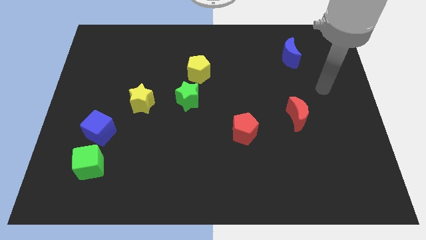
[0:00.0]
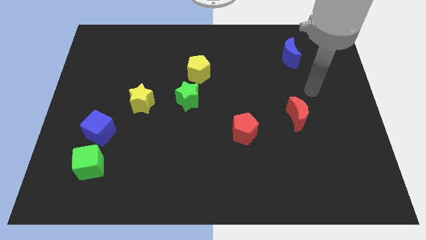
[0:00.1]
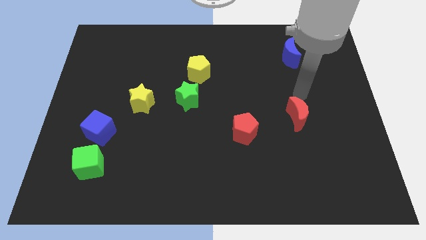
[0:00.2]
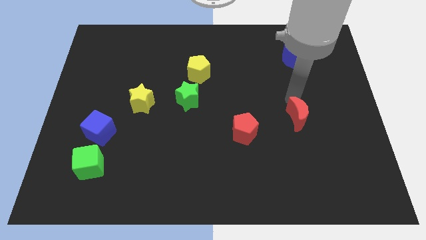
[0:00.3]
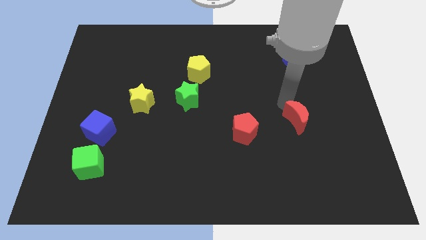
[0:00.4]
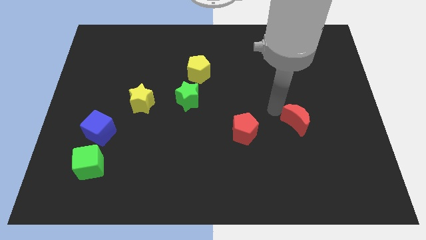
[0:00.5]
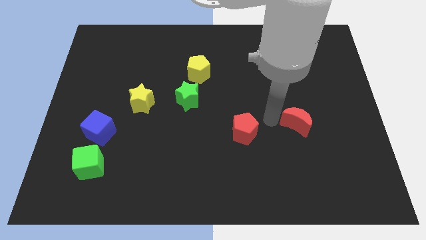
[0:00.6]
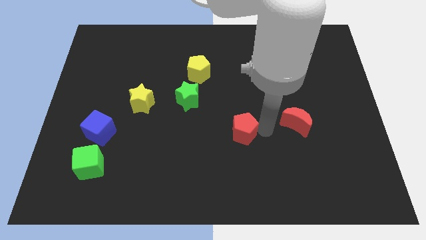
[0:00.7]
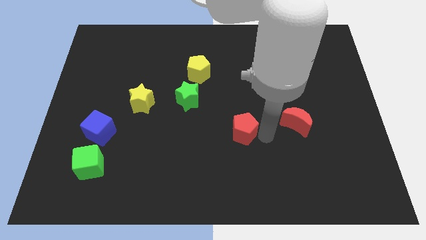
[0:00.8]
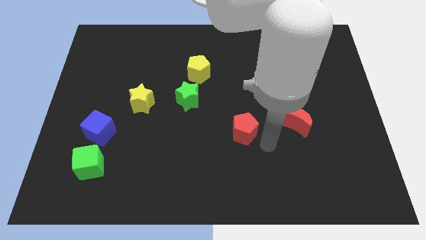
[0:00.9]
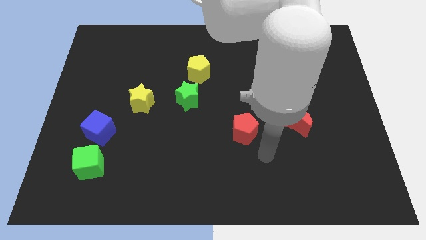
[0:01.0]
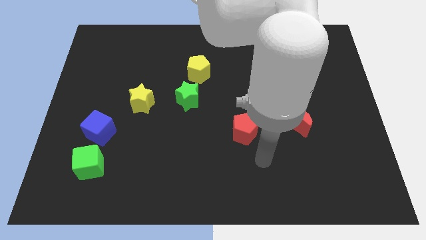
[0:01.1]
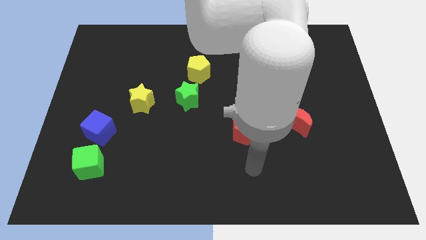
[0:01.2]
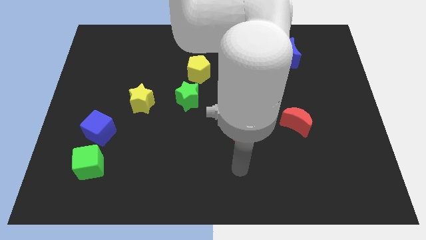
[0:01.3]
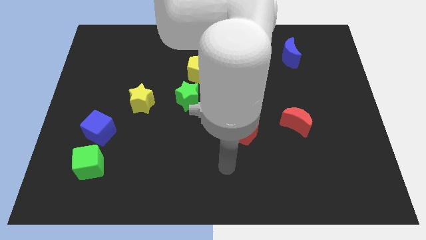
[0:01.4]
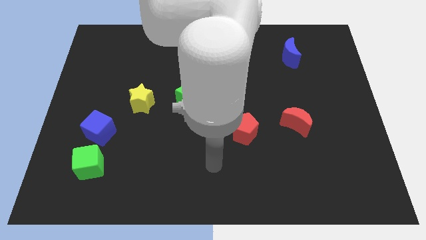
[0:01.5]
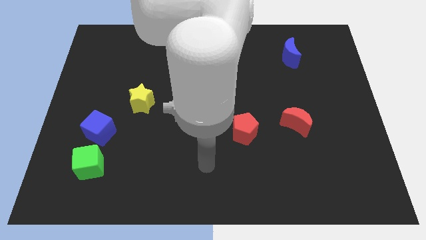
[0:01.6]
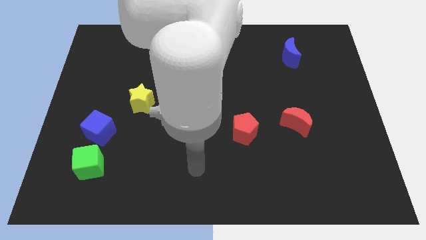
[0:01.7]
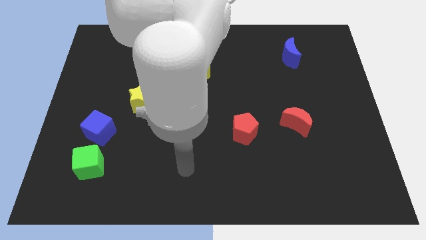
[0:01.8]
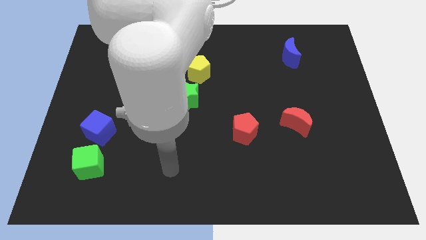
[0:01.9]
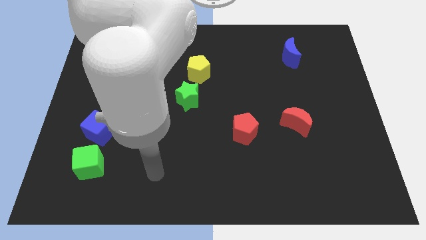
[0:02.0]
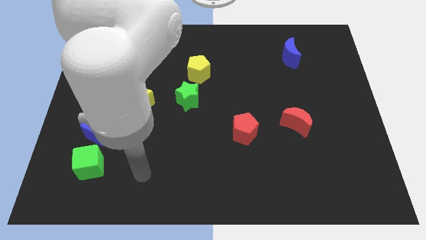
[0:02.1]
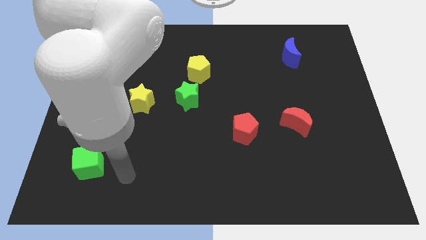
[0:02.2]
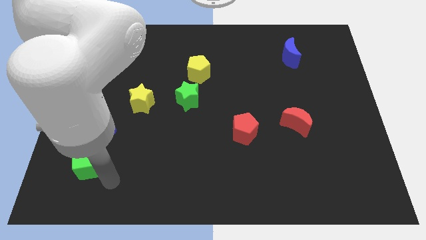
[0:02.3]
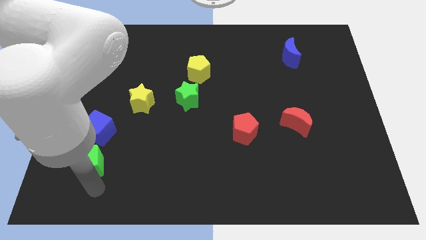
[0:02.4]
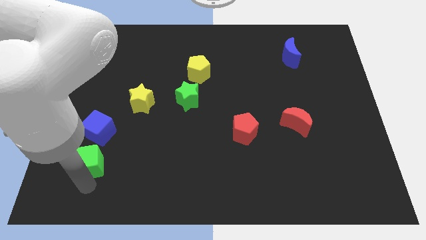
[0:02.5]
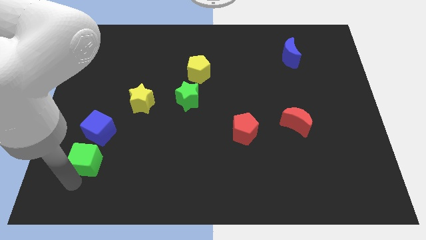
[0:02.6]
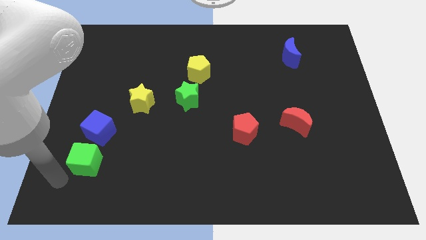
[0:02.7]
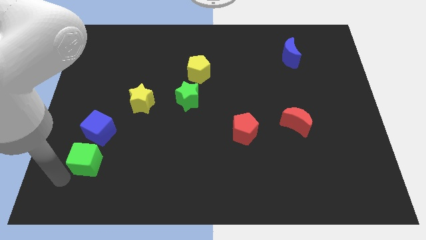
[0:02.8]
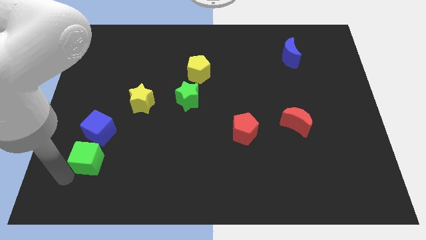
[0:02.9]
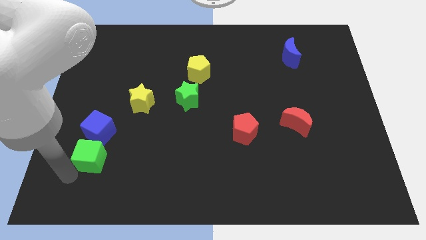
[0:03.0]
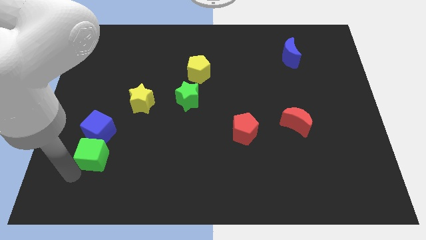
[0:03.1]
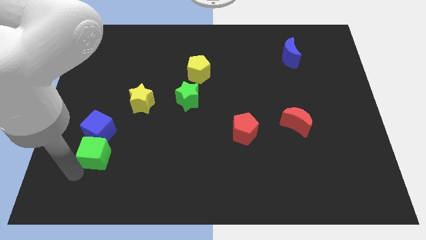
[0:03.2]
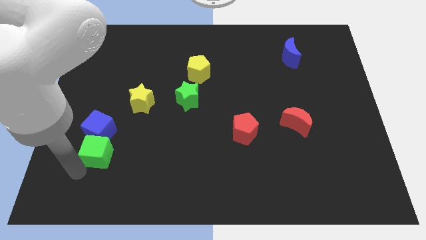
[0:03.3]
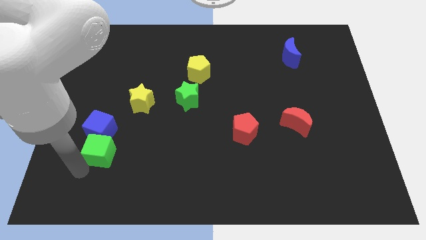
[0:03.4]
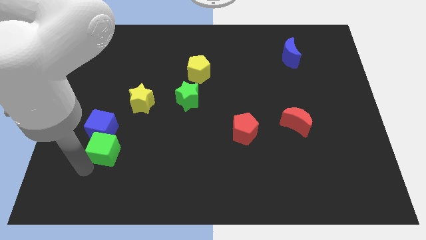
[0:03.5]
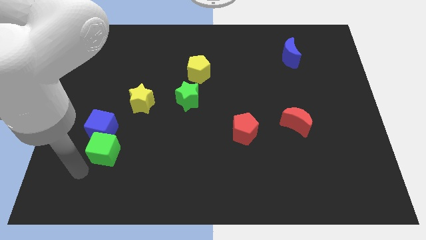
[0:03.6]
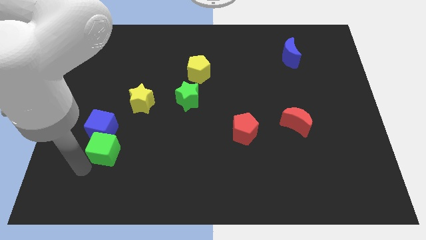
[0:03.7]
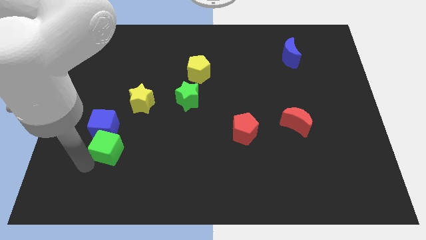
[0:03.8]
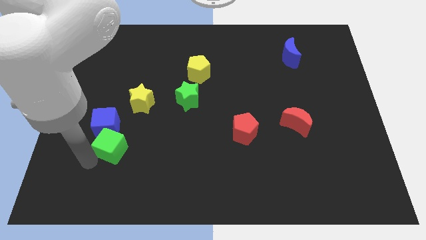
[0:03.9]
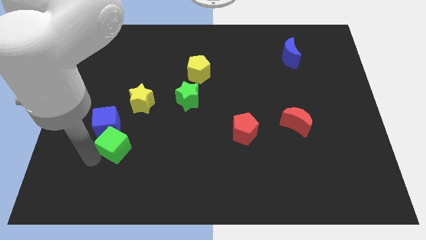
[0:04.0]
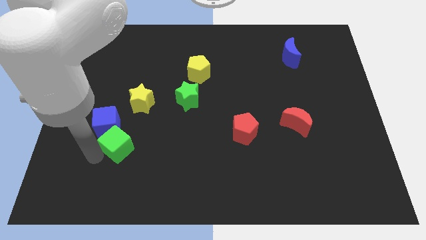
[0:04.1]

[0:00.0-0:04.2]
slightly push the green cube upwards and right diagonally

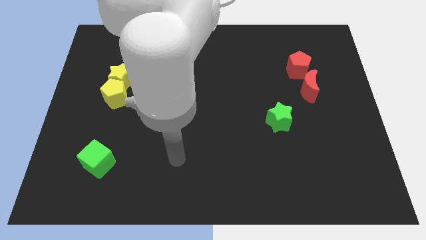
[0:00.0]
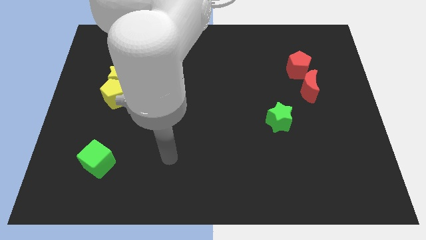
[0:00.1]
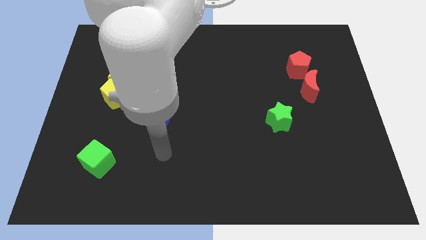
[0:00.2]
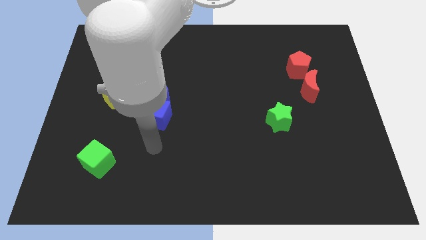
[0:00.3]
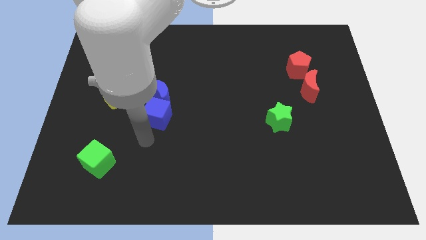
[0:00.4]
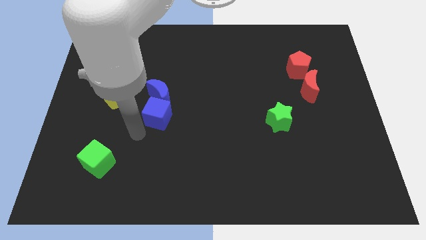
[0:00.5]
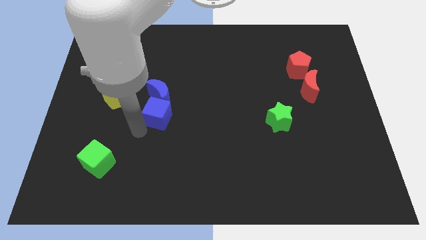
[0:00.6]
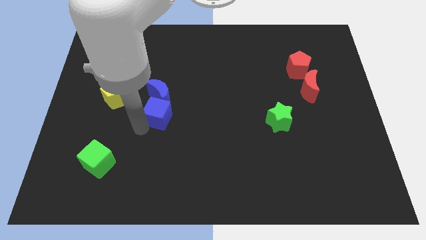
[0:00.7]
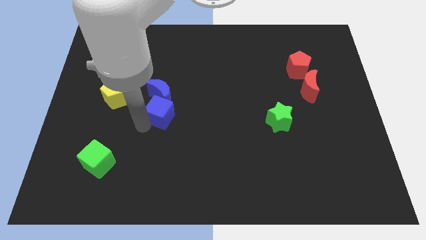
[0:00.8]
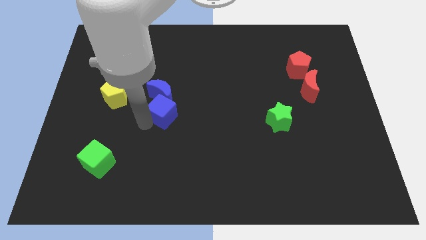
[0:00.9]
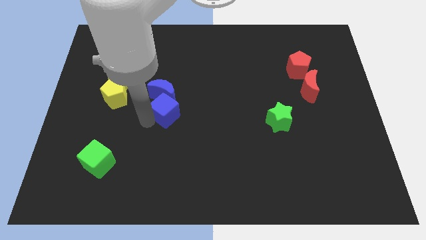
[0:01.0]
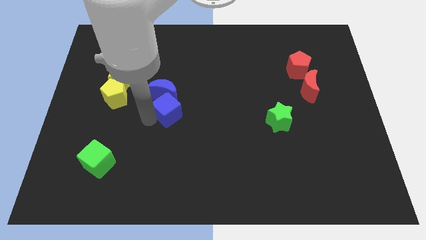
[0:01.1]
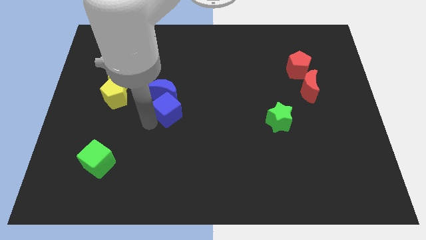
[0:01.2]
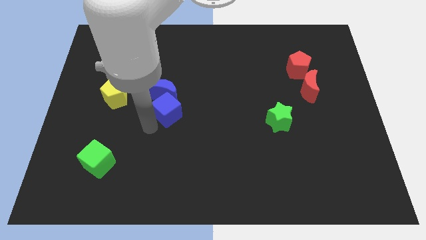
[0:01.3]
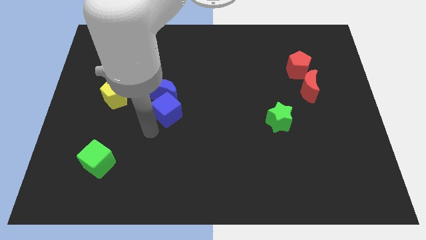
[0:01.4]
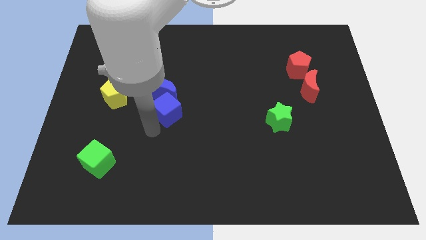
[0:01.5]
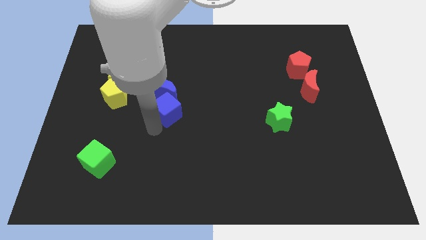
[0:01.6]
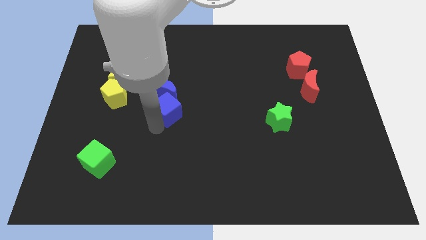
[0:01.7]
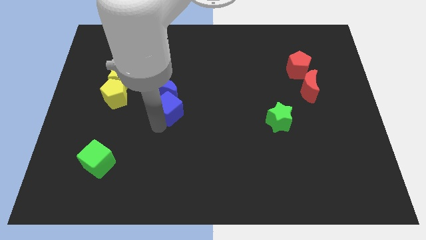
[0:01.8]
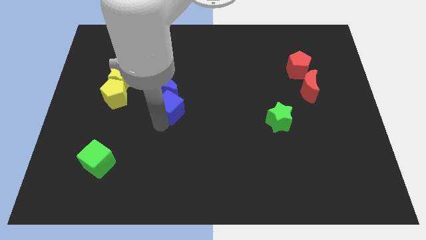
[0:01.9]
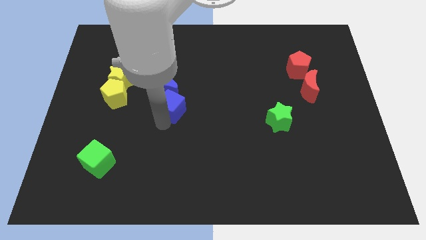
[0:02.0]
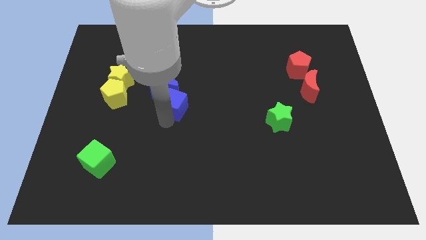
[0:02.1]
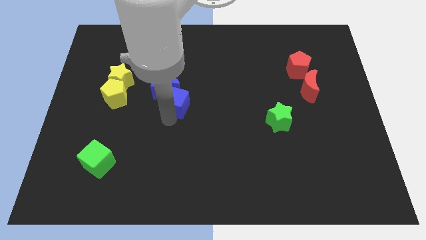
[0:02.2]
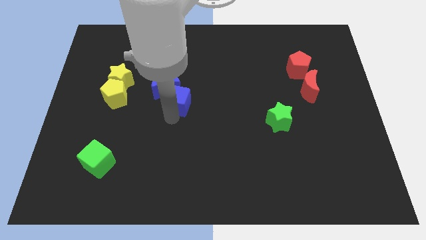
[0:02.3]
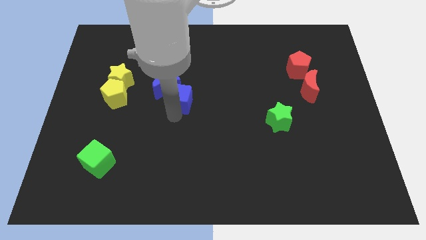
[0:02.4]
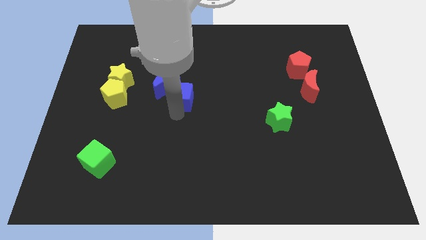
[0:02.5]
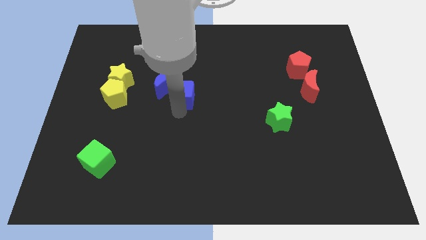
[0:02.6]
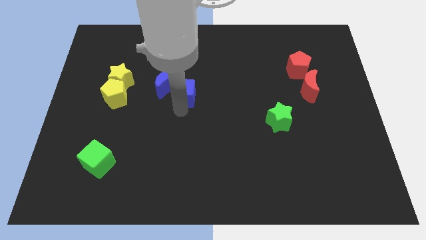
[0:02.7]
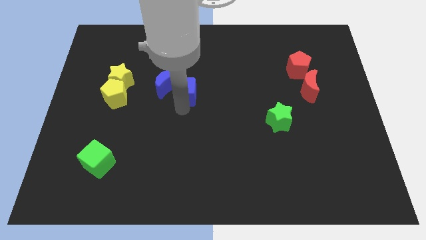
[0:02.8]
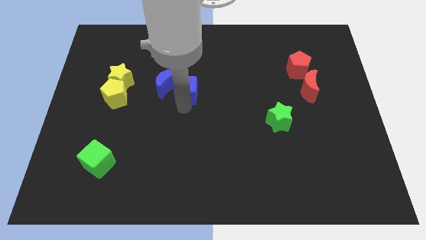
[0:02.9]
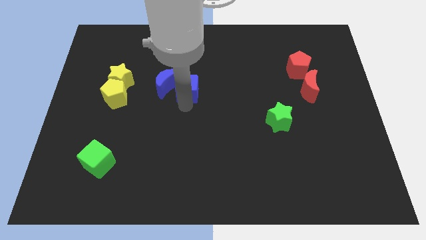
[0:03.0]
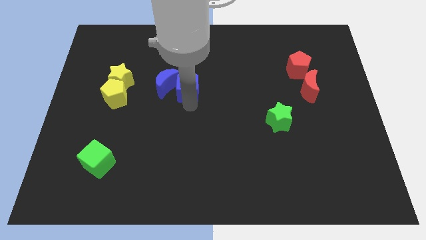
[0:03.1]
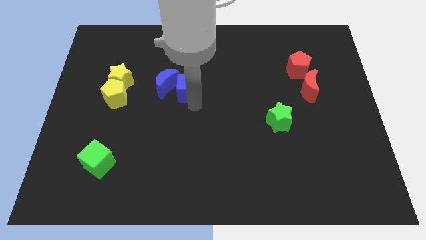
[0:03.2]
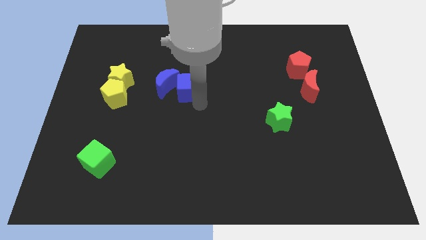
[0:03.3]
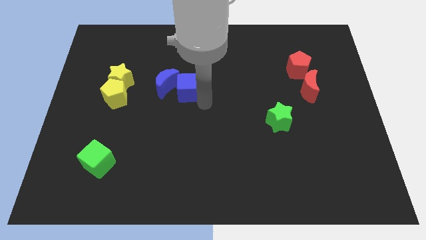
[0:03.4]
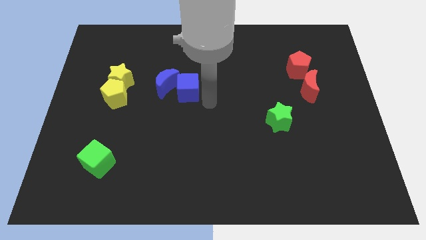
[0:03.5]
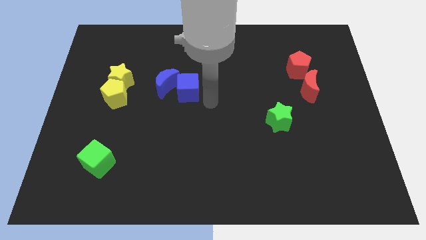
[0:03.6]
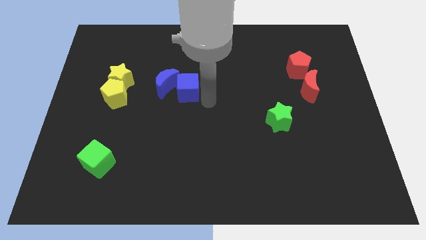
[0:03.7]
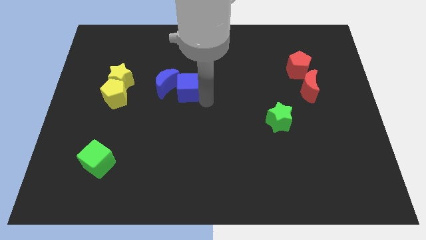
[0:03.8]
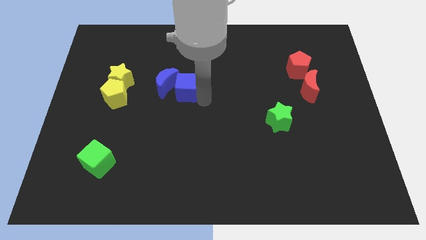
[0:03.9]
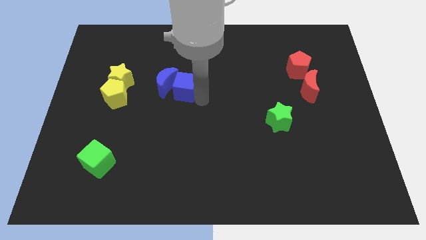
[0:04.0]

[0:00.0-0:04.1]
slide the blue cube upwards a little bit
